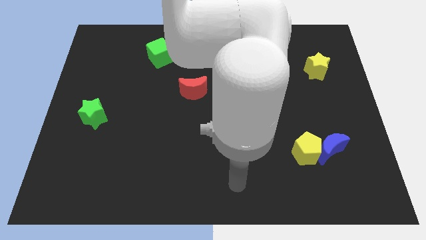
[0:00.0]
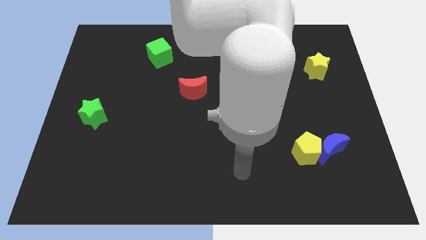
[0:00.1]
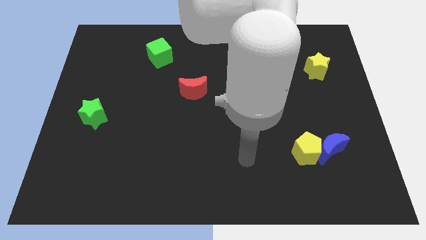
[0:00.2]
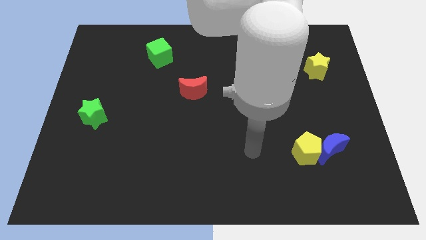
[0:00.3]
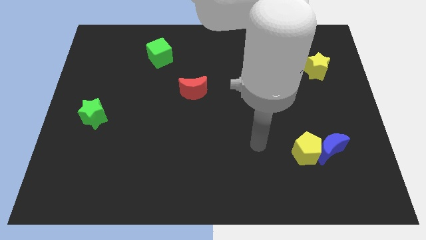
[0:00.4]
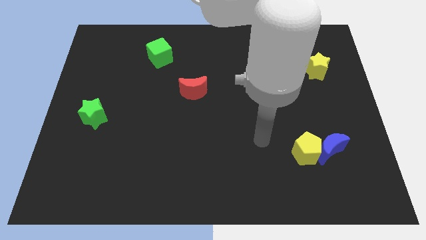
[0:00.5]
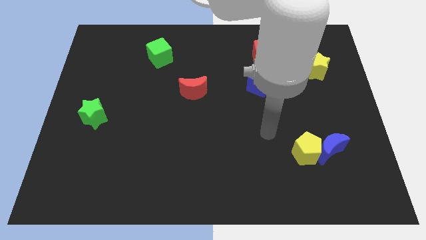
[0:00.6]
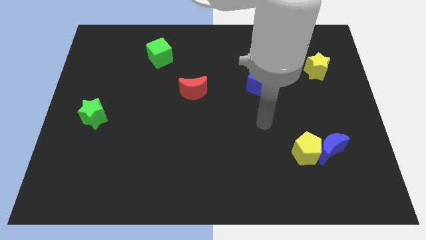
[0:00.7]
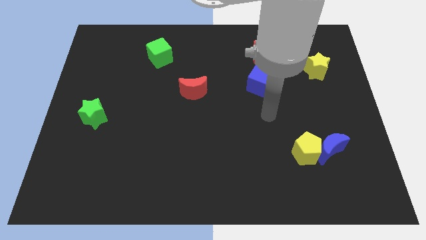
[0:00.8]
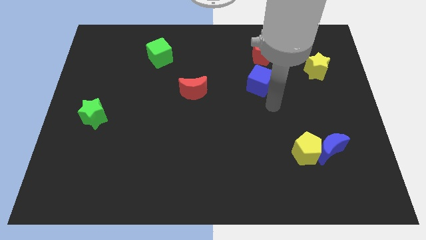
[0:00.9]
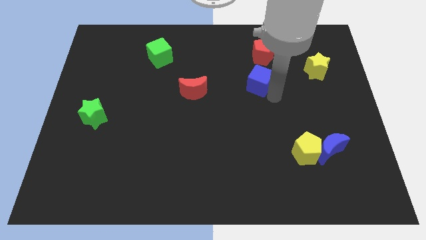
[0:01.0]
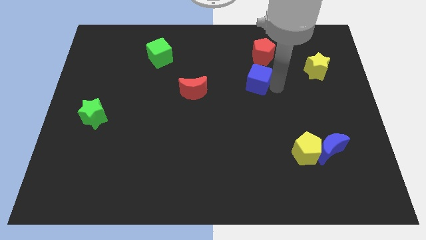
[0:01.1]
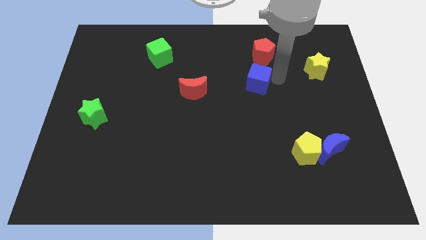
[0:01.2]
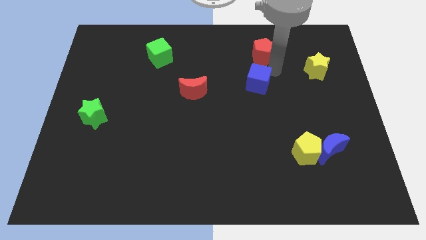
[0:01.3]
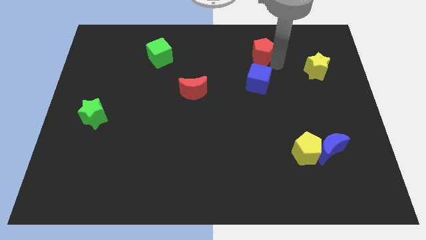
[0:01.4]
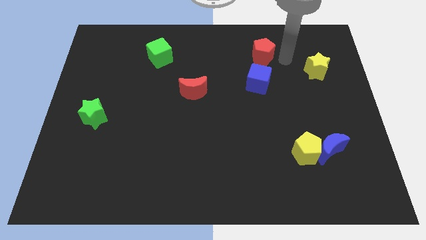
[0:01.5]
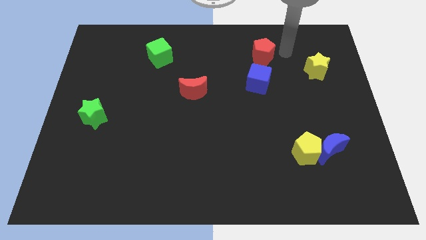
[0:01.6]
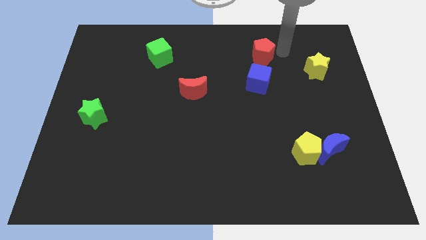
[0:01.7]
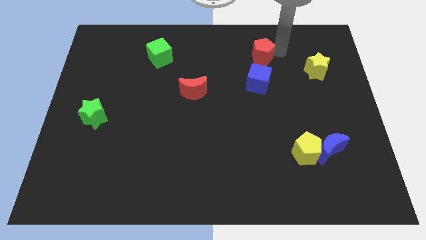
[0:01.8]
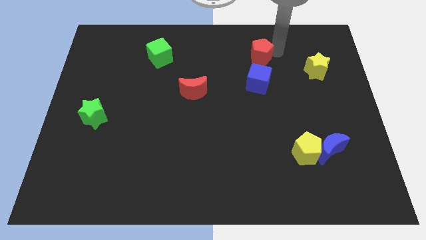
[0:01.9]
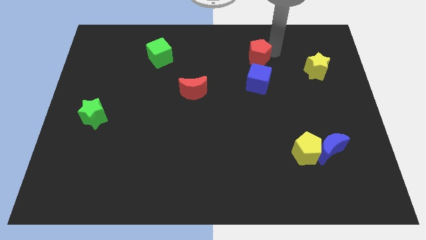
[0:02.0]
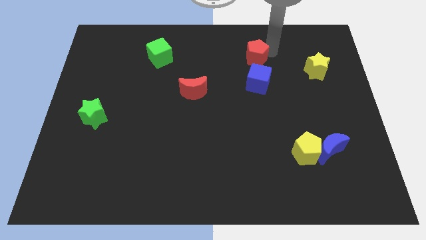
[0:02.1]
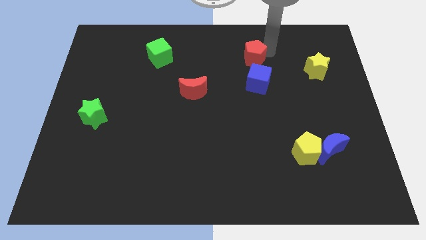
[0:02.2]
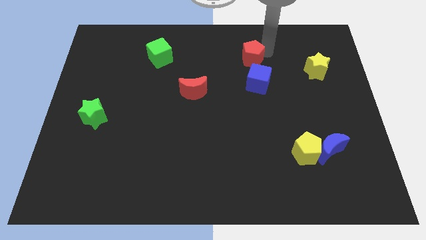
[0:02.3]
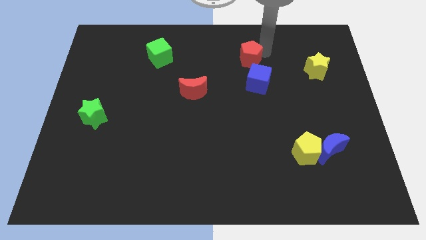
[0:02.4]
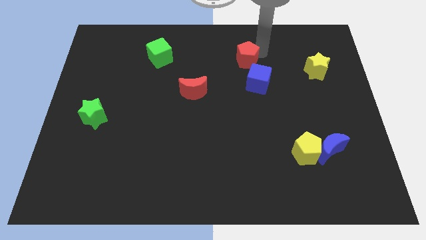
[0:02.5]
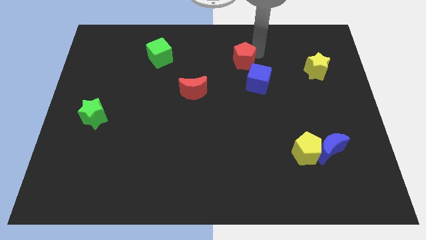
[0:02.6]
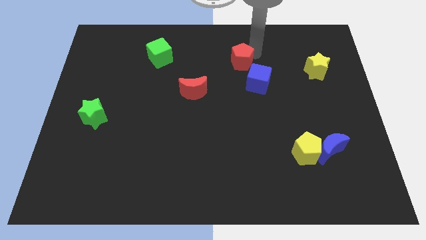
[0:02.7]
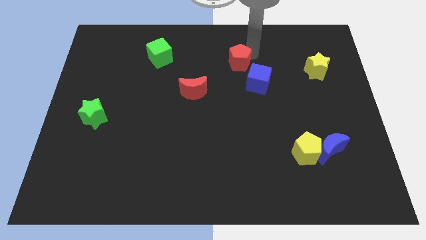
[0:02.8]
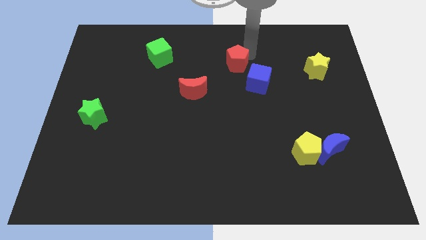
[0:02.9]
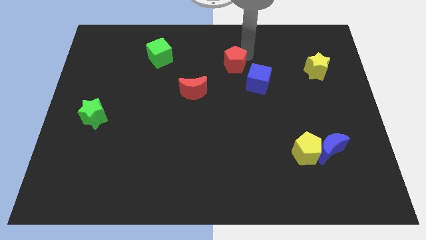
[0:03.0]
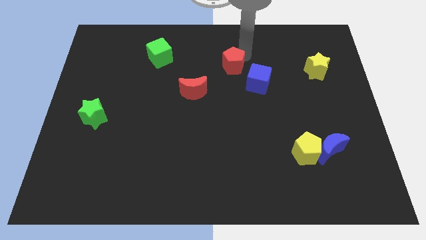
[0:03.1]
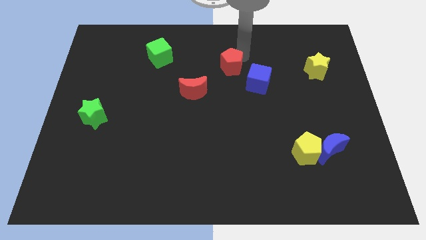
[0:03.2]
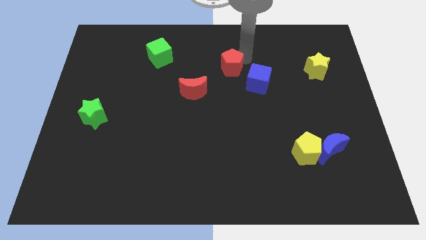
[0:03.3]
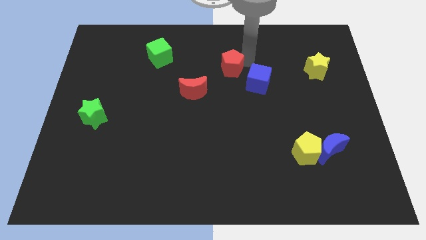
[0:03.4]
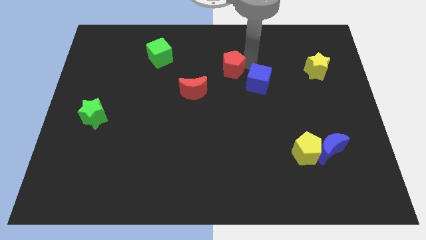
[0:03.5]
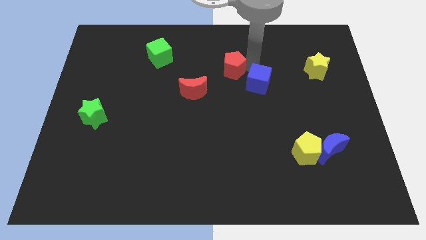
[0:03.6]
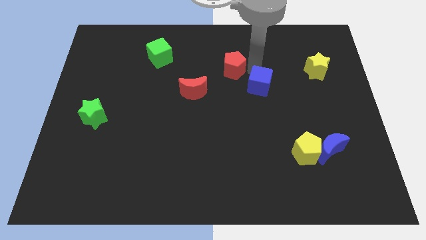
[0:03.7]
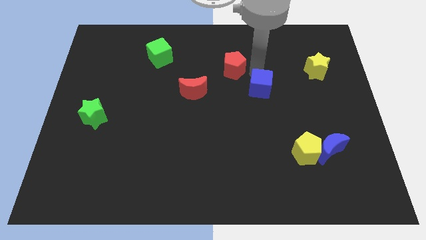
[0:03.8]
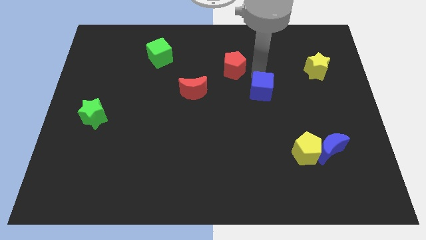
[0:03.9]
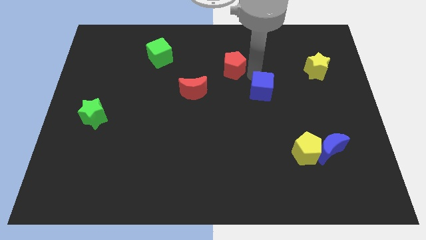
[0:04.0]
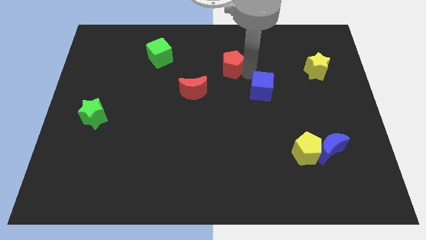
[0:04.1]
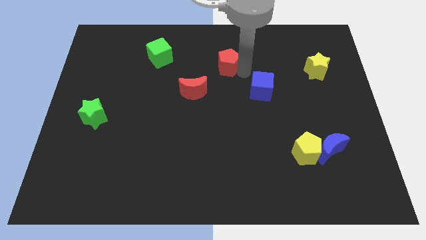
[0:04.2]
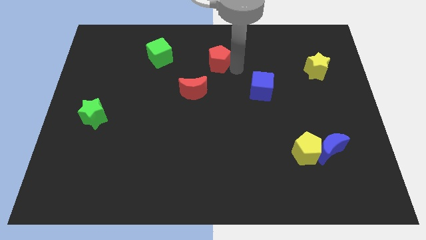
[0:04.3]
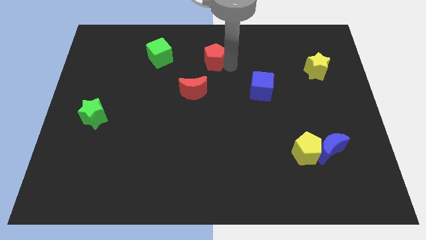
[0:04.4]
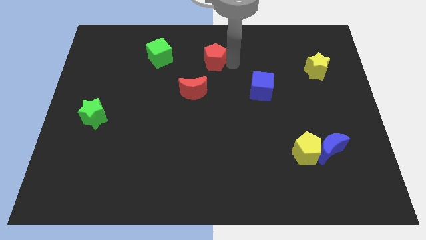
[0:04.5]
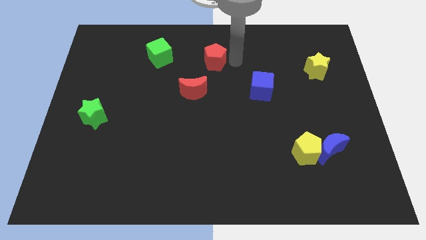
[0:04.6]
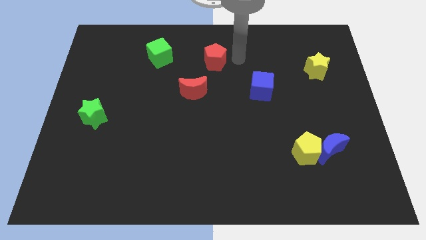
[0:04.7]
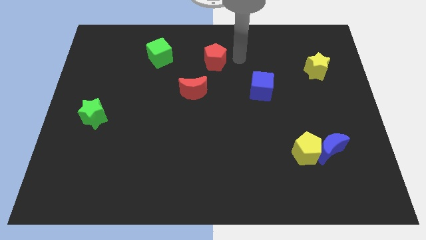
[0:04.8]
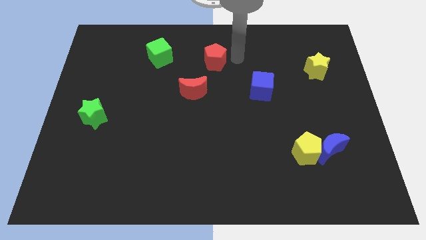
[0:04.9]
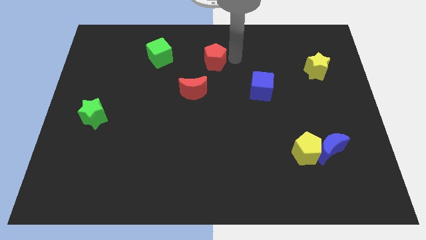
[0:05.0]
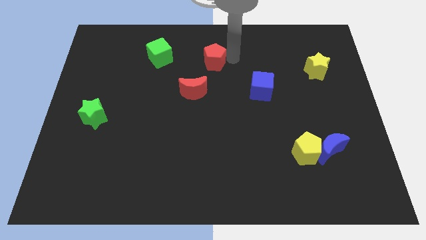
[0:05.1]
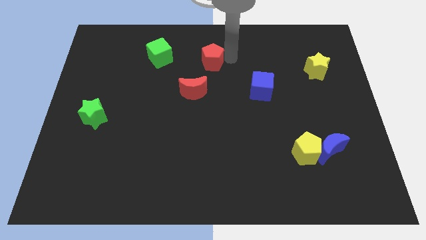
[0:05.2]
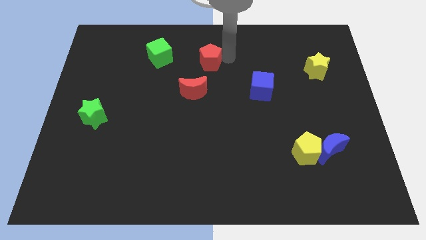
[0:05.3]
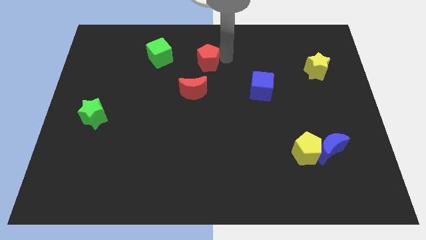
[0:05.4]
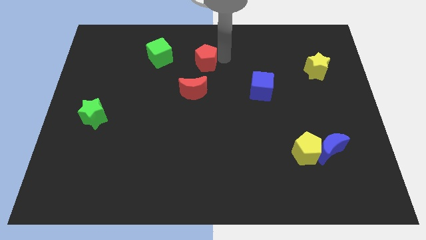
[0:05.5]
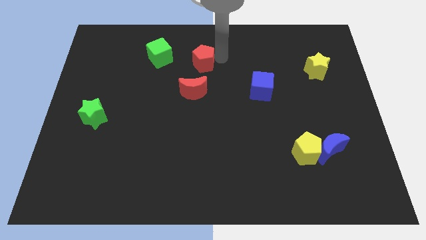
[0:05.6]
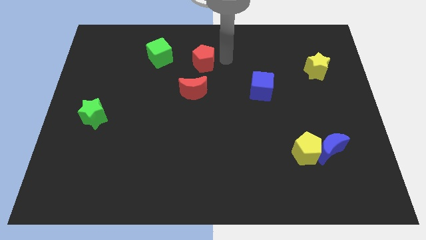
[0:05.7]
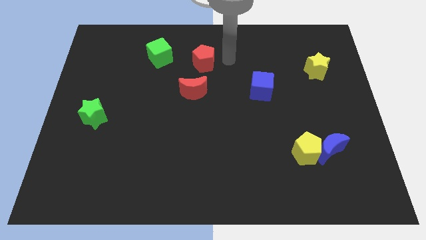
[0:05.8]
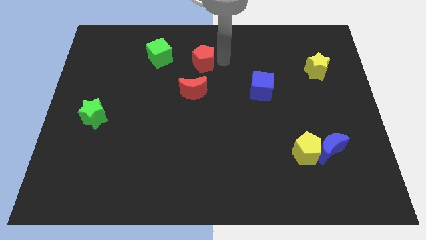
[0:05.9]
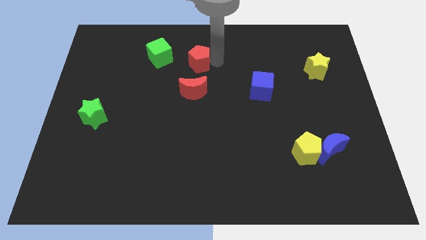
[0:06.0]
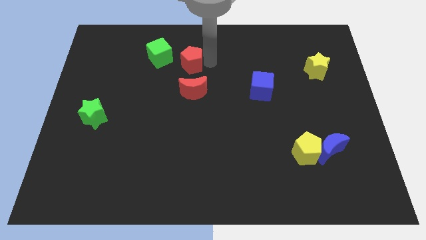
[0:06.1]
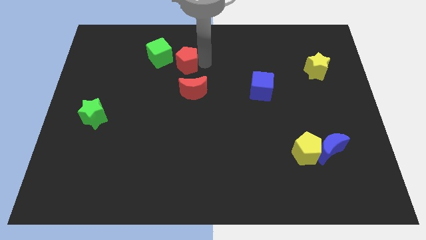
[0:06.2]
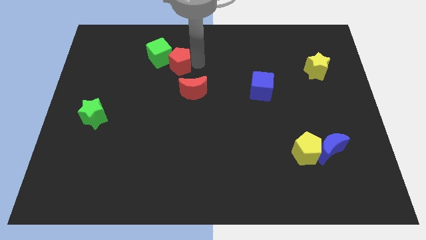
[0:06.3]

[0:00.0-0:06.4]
slide the red pentagon left

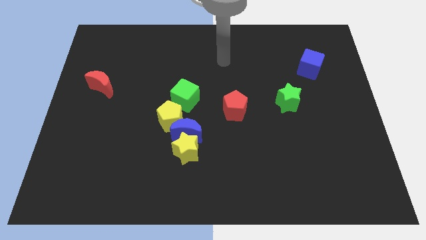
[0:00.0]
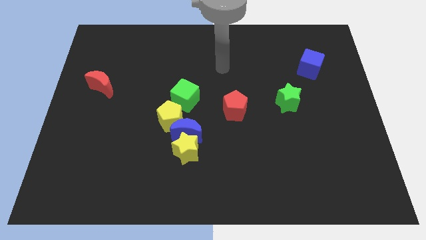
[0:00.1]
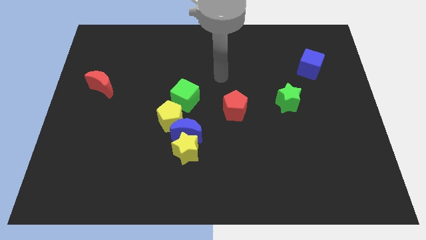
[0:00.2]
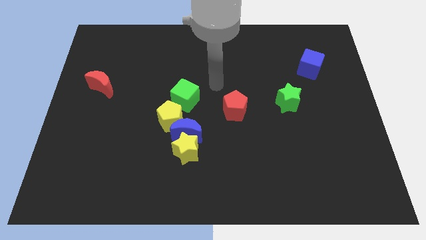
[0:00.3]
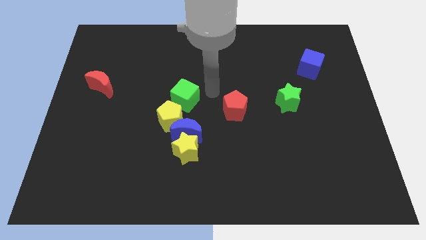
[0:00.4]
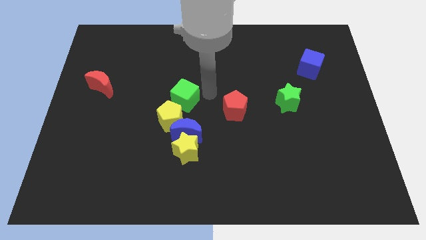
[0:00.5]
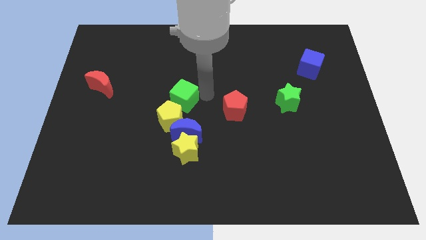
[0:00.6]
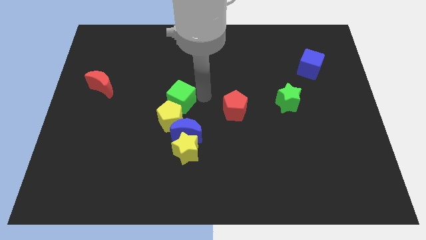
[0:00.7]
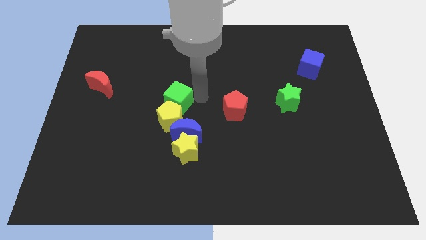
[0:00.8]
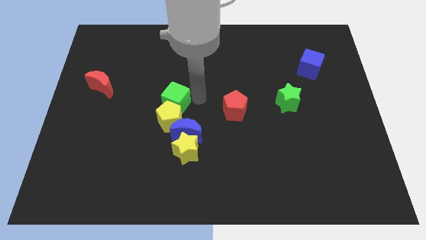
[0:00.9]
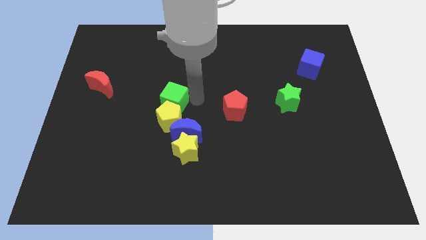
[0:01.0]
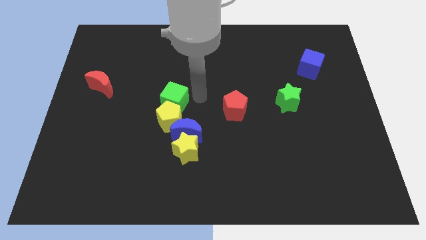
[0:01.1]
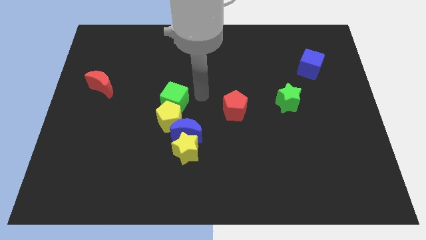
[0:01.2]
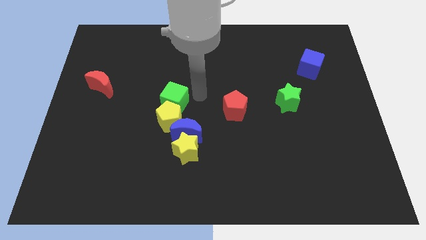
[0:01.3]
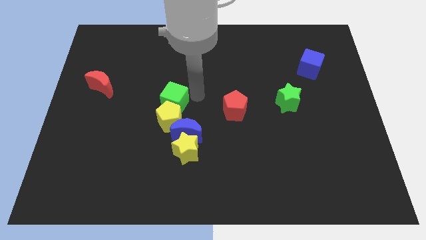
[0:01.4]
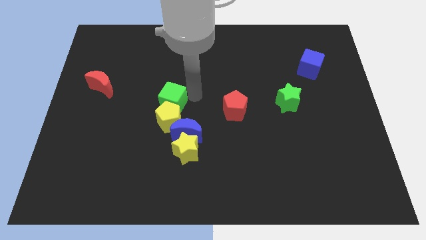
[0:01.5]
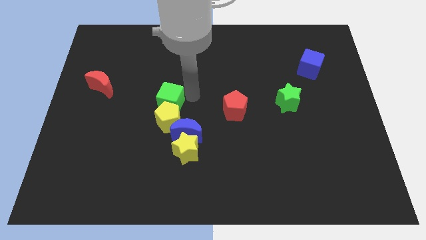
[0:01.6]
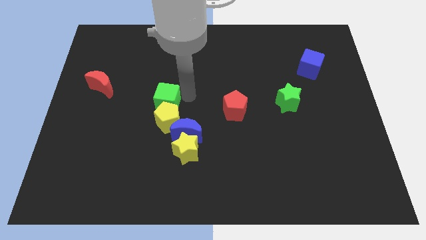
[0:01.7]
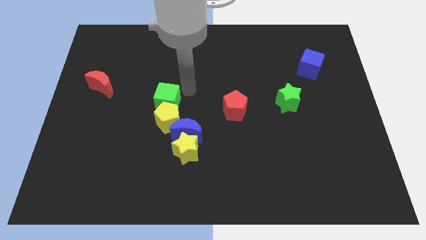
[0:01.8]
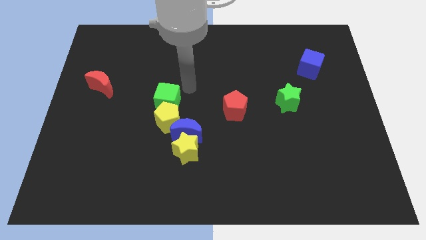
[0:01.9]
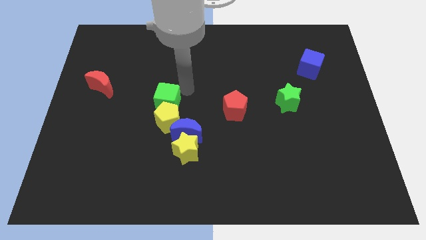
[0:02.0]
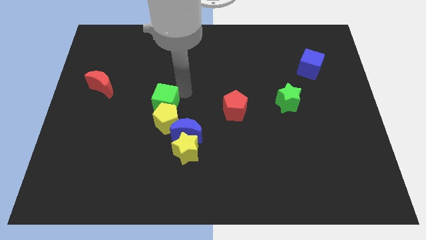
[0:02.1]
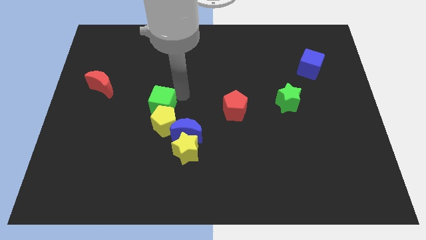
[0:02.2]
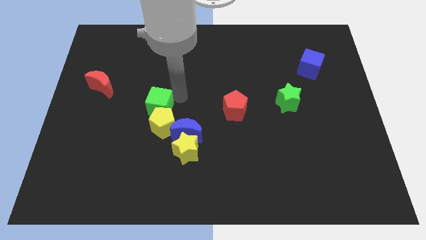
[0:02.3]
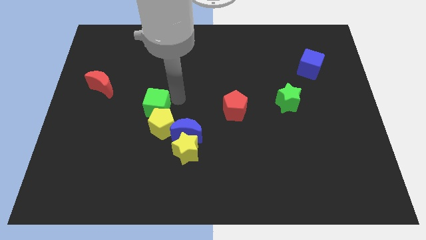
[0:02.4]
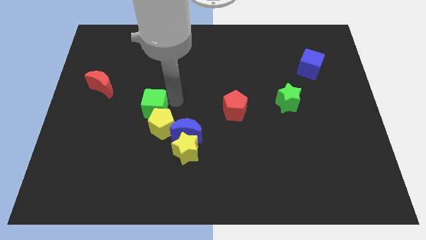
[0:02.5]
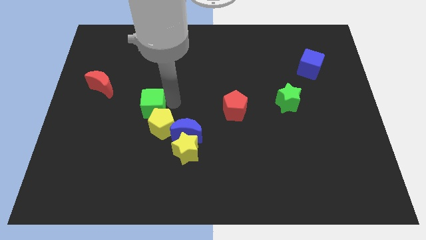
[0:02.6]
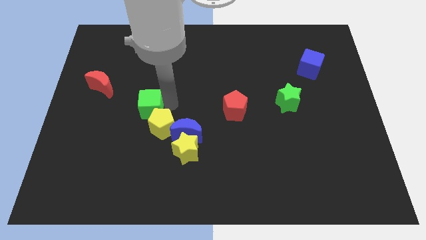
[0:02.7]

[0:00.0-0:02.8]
slide the green cube a little bit downwards and then to the left
